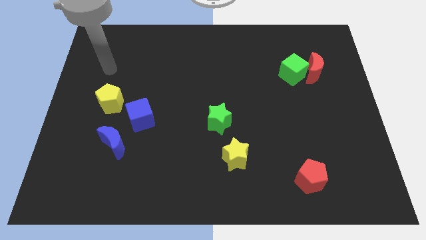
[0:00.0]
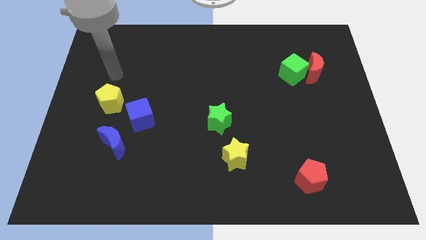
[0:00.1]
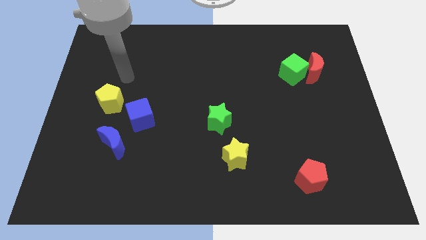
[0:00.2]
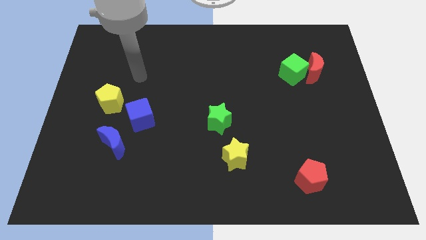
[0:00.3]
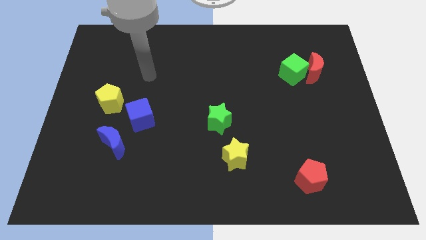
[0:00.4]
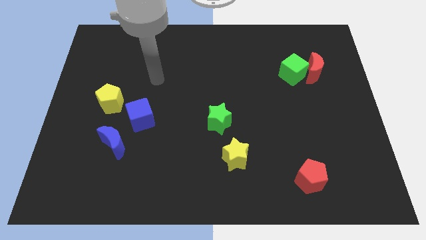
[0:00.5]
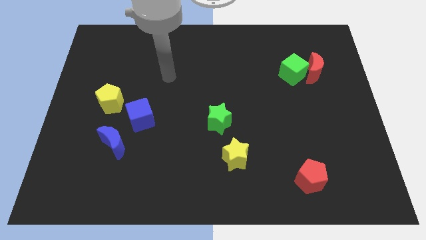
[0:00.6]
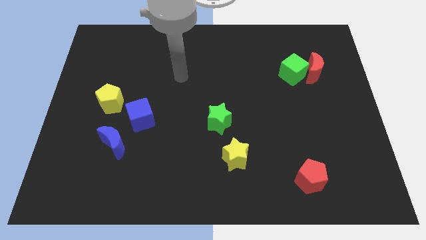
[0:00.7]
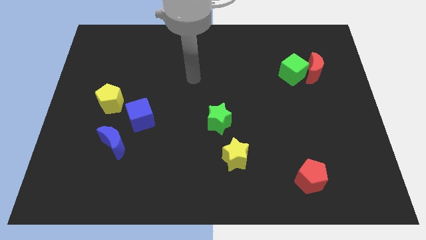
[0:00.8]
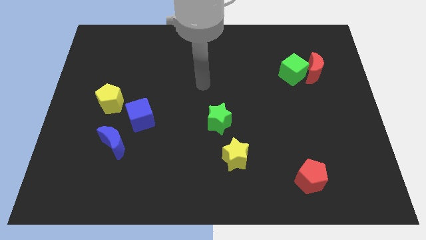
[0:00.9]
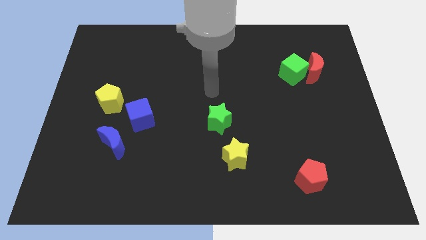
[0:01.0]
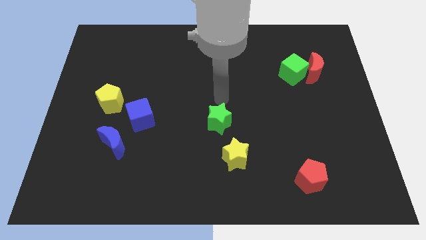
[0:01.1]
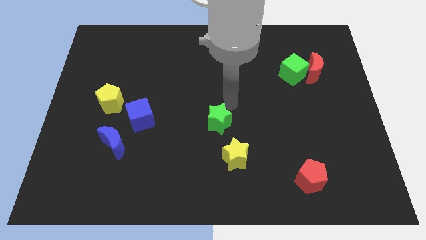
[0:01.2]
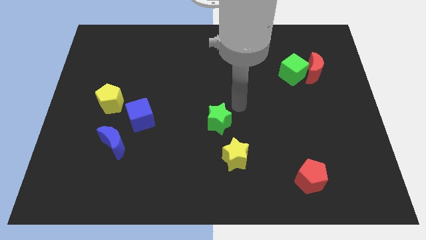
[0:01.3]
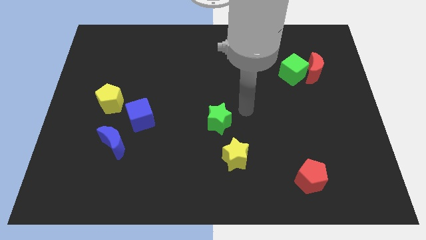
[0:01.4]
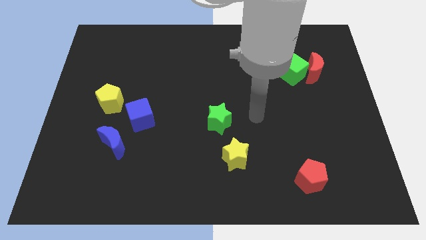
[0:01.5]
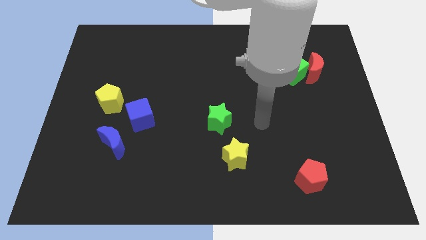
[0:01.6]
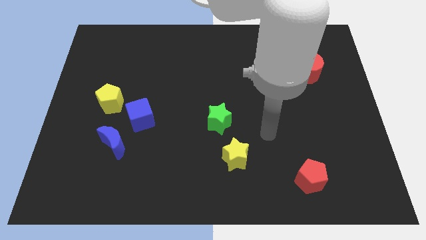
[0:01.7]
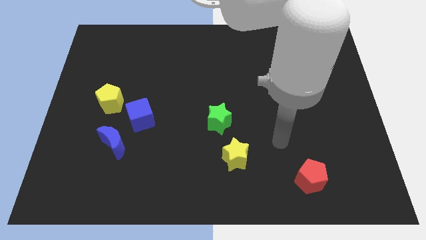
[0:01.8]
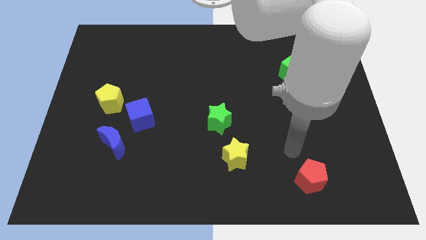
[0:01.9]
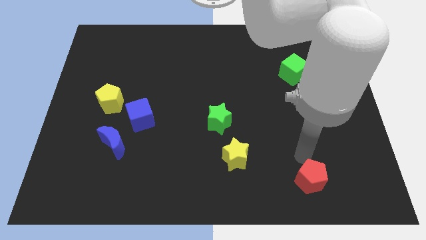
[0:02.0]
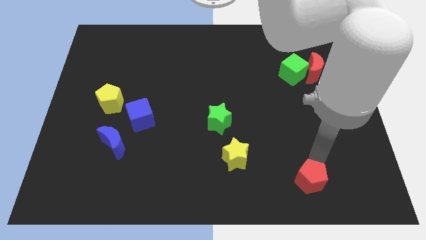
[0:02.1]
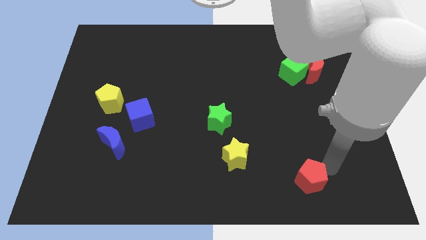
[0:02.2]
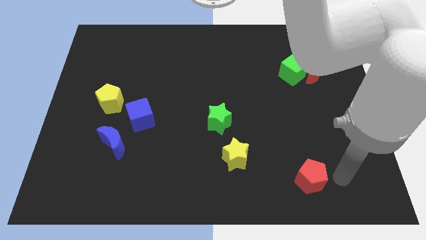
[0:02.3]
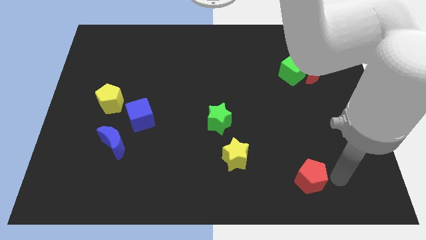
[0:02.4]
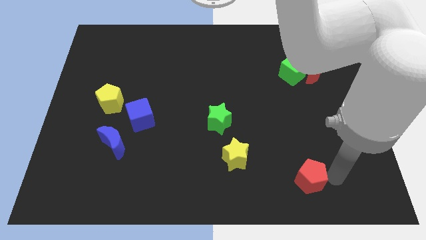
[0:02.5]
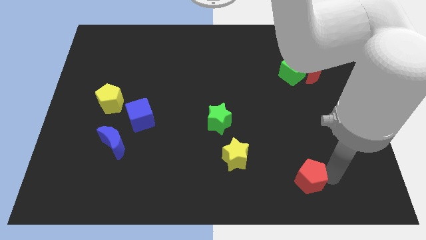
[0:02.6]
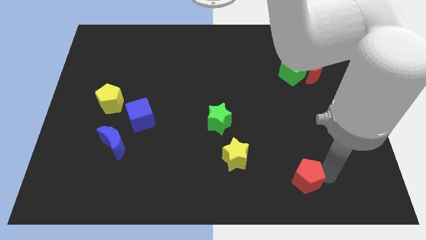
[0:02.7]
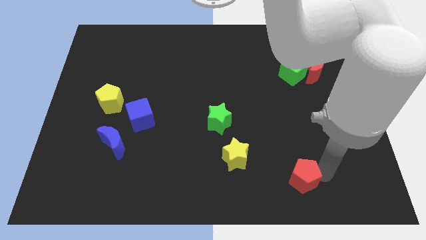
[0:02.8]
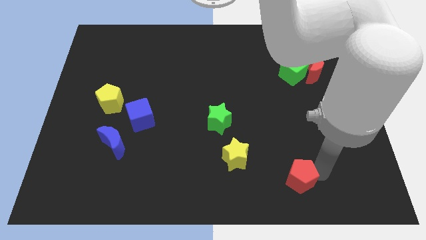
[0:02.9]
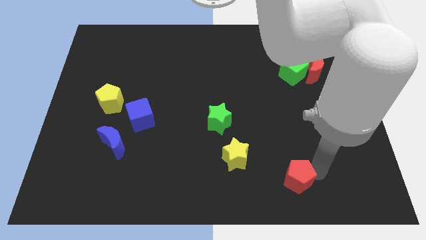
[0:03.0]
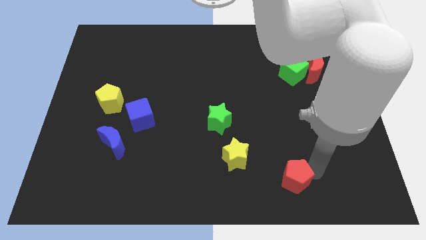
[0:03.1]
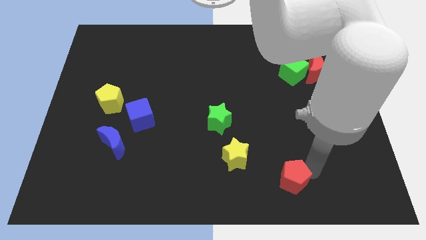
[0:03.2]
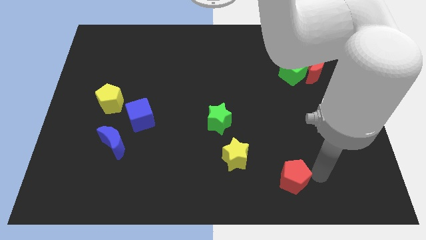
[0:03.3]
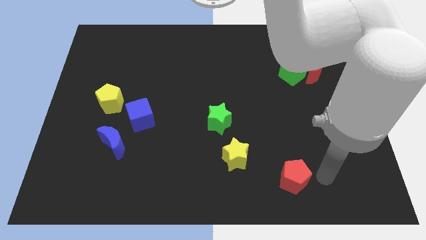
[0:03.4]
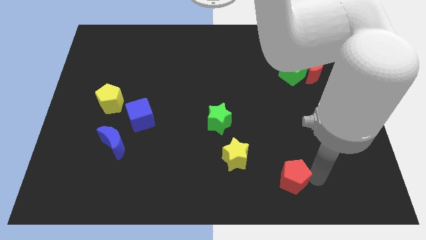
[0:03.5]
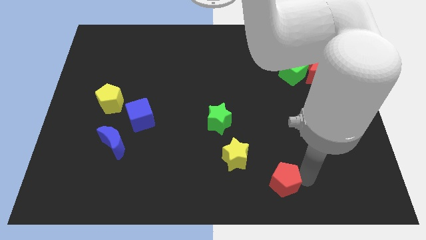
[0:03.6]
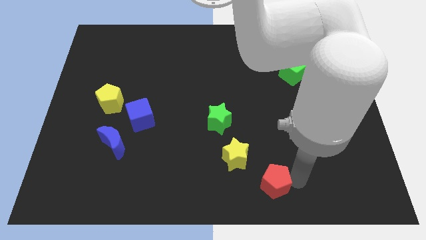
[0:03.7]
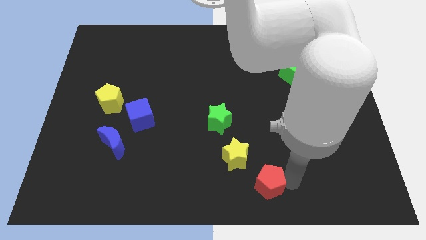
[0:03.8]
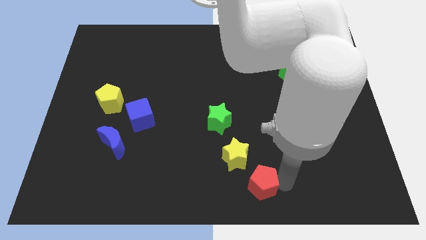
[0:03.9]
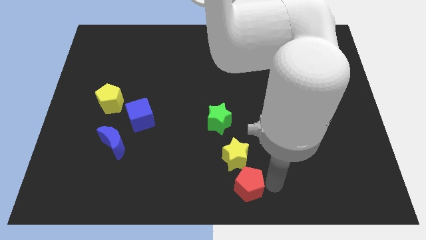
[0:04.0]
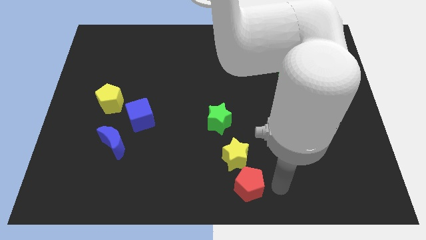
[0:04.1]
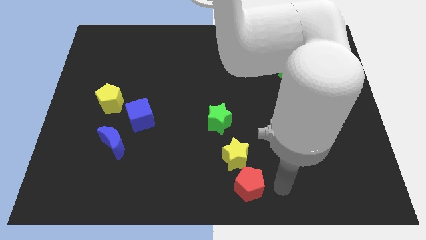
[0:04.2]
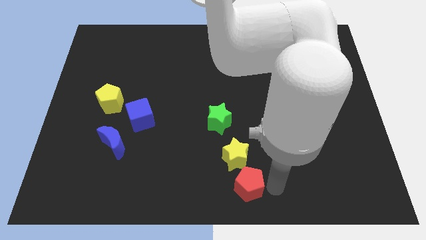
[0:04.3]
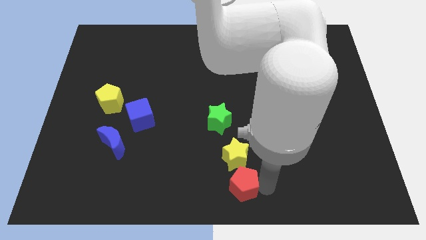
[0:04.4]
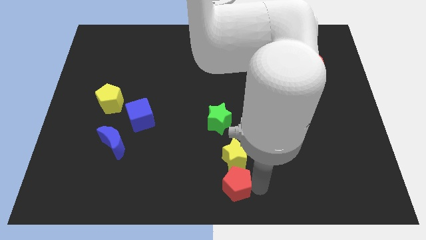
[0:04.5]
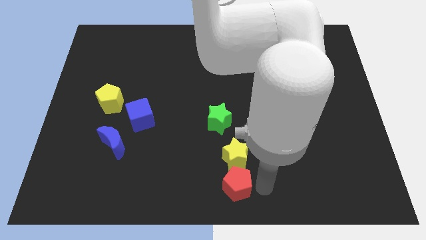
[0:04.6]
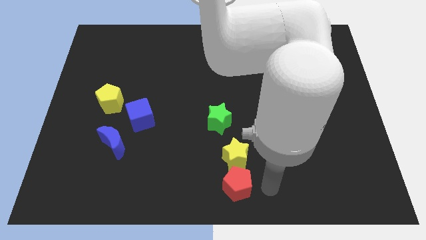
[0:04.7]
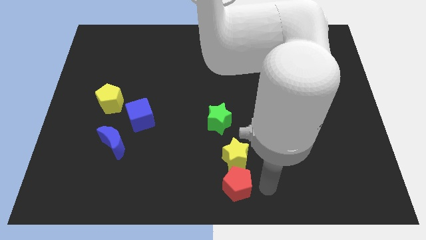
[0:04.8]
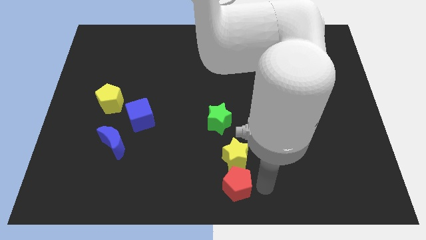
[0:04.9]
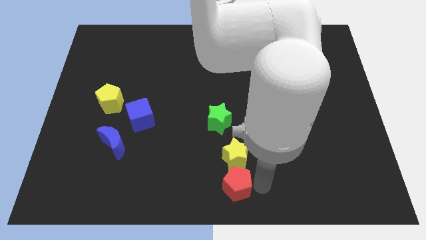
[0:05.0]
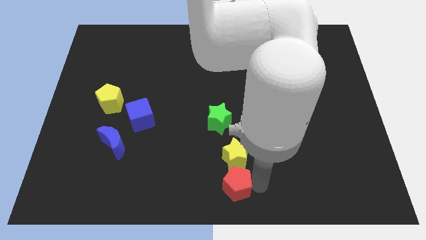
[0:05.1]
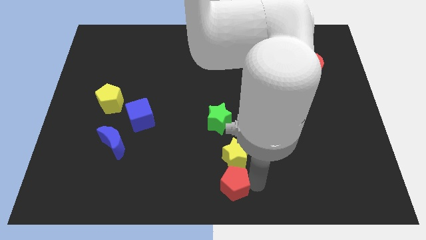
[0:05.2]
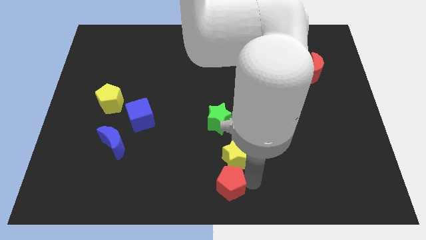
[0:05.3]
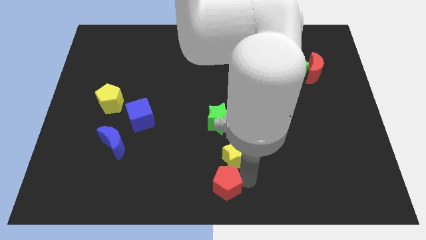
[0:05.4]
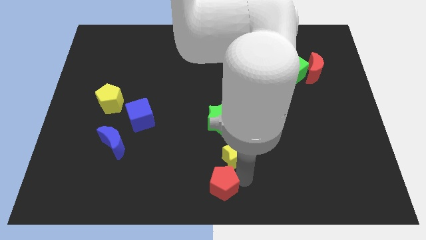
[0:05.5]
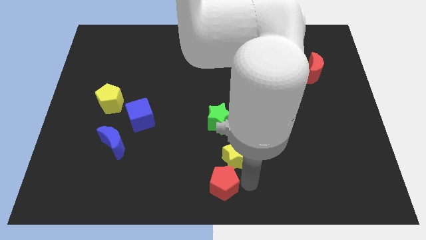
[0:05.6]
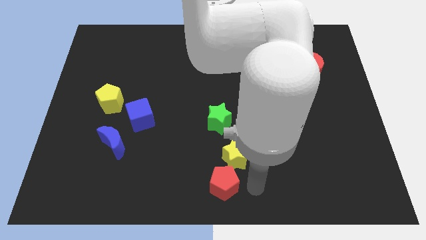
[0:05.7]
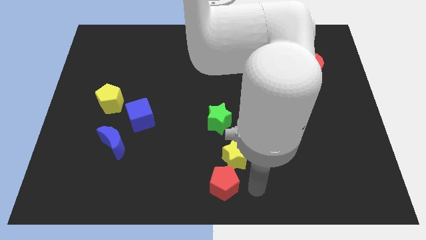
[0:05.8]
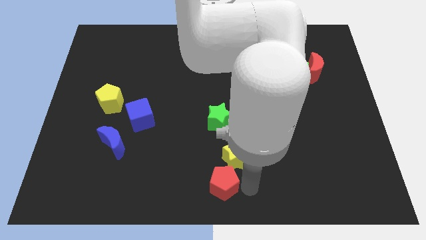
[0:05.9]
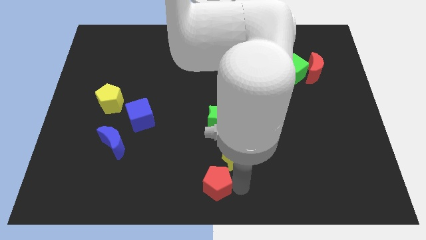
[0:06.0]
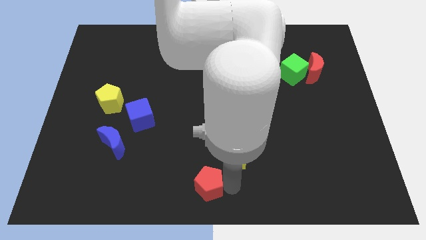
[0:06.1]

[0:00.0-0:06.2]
slide the red pentagon left

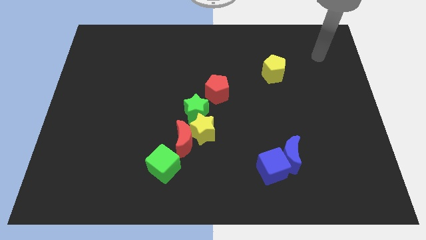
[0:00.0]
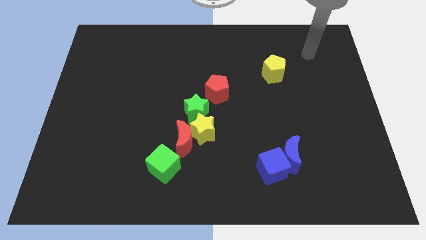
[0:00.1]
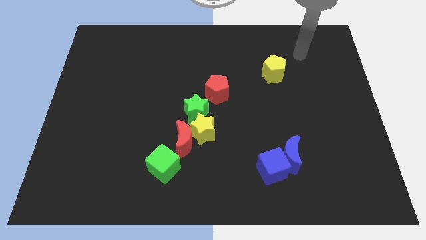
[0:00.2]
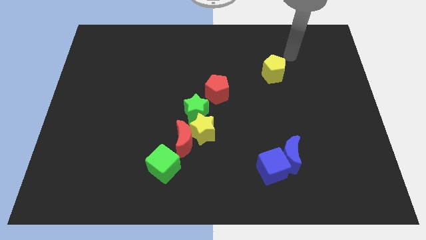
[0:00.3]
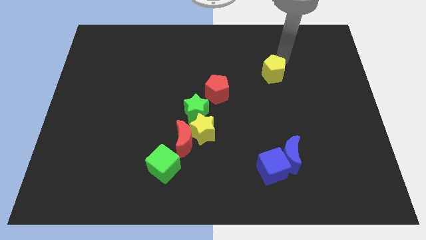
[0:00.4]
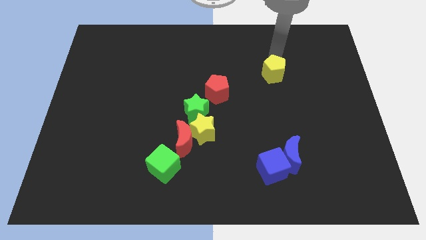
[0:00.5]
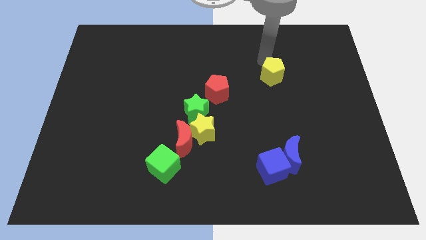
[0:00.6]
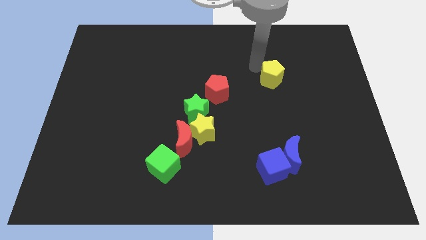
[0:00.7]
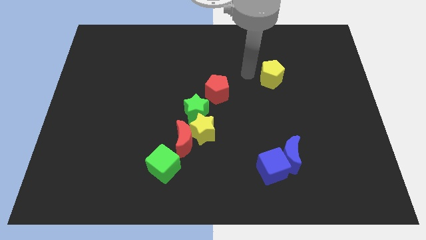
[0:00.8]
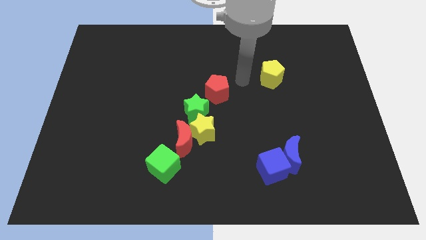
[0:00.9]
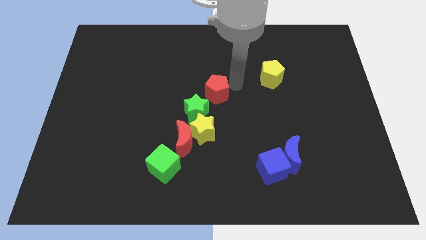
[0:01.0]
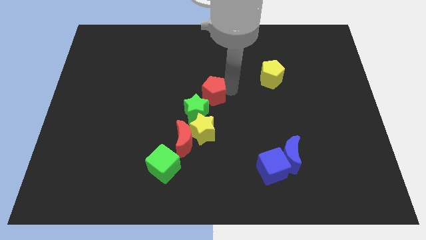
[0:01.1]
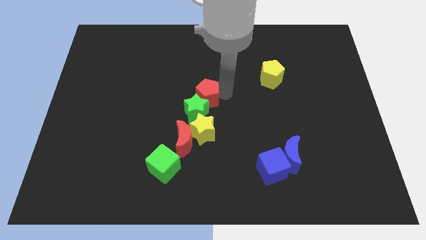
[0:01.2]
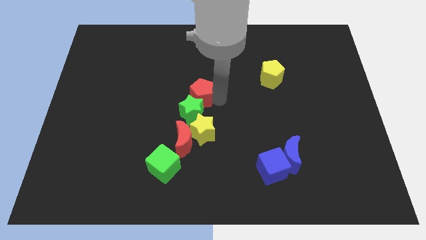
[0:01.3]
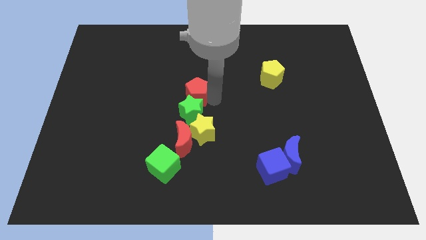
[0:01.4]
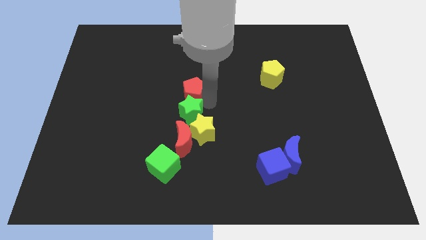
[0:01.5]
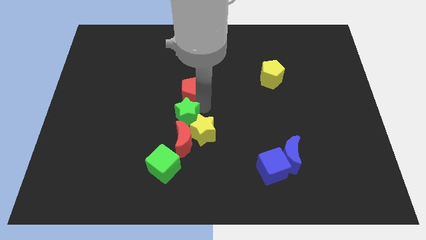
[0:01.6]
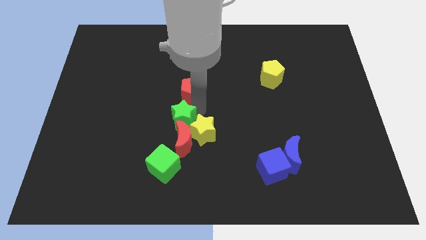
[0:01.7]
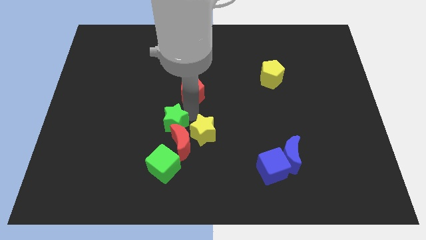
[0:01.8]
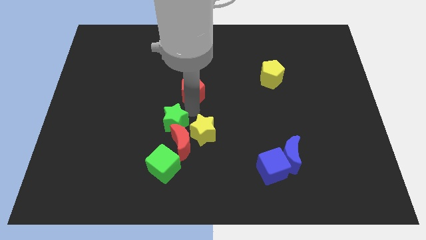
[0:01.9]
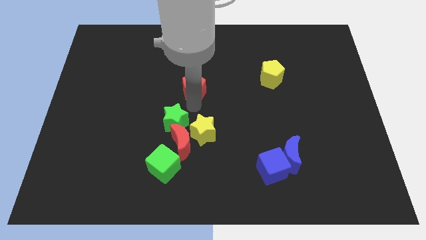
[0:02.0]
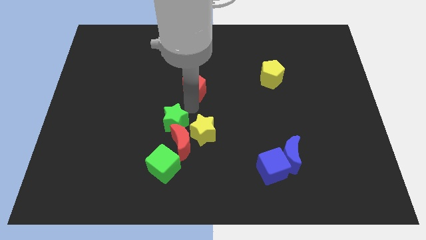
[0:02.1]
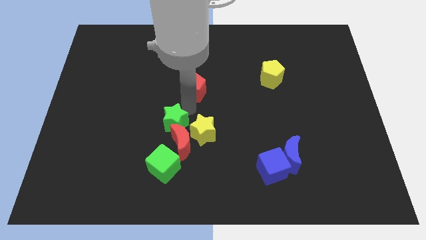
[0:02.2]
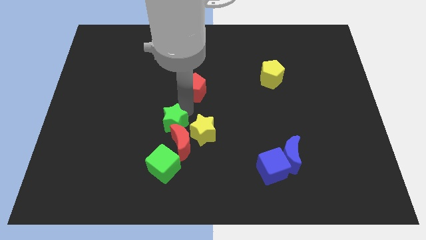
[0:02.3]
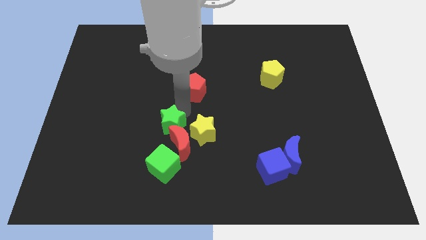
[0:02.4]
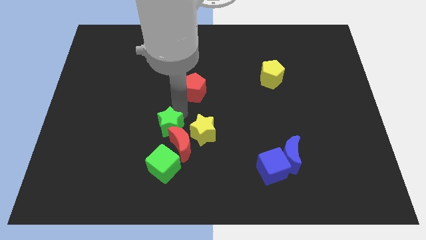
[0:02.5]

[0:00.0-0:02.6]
slide the green star downwards and to the left a little
